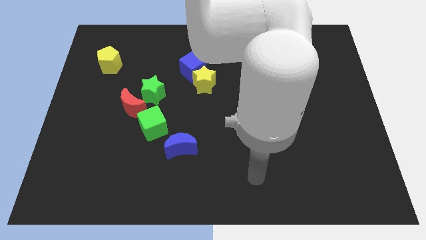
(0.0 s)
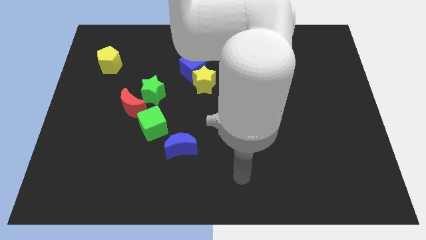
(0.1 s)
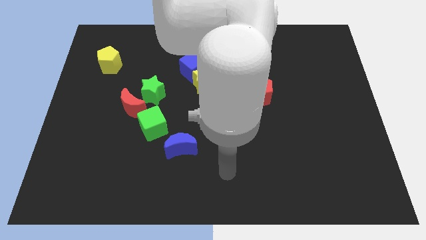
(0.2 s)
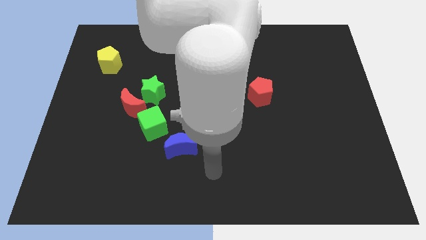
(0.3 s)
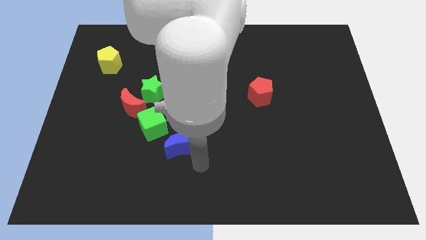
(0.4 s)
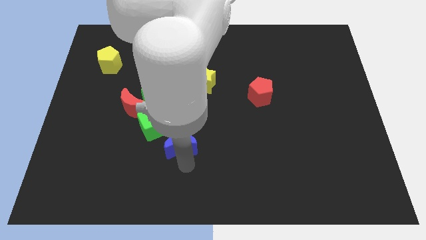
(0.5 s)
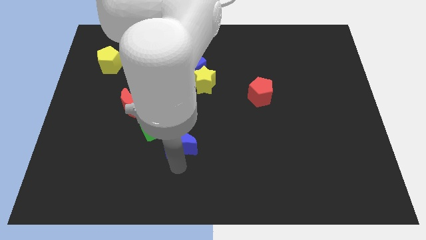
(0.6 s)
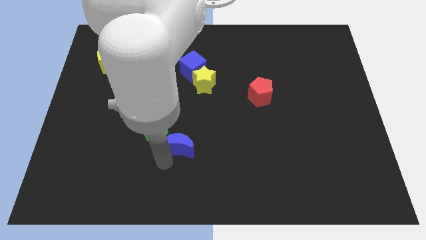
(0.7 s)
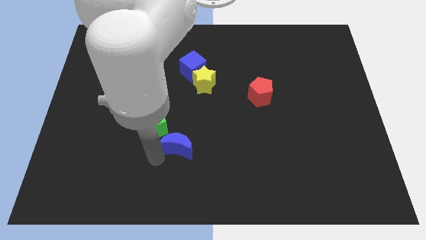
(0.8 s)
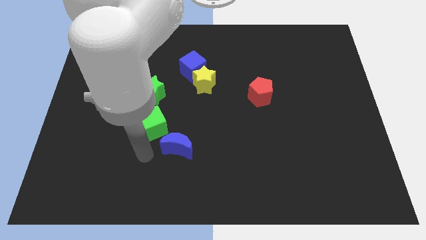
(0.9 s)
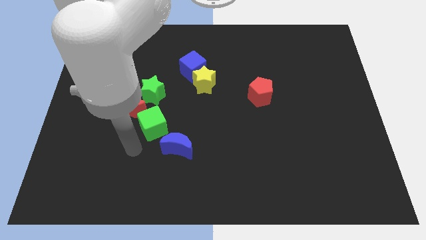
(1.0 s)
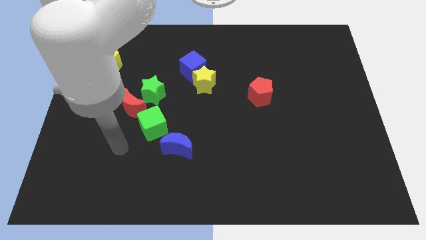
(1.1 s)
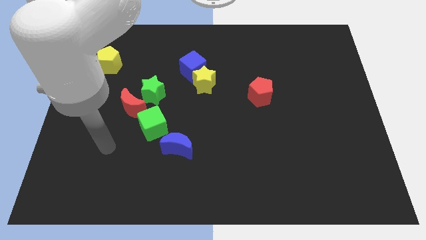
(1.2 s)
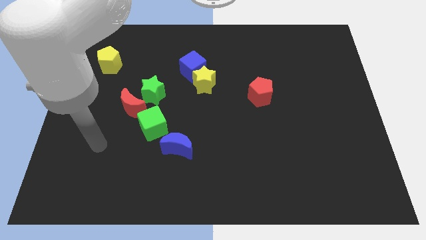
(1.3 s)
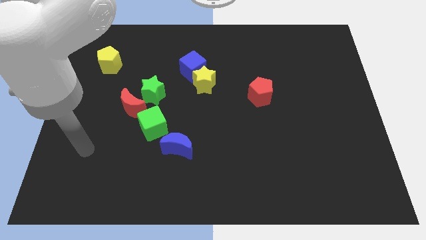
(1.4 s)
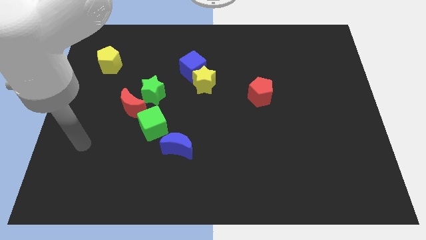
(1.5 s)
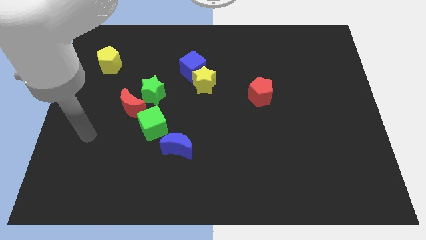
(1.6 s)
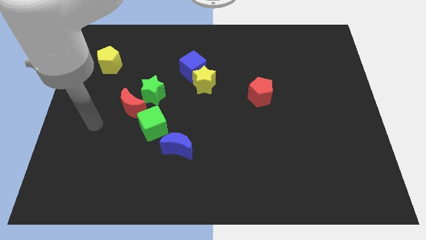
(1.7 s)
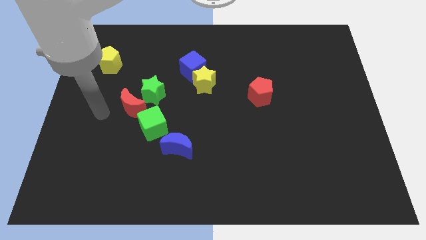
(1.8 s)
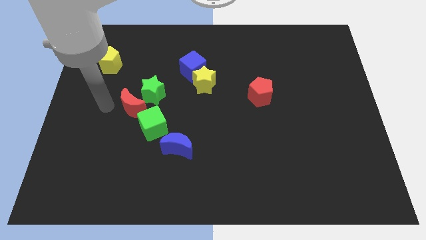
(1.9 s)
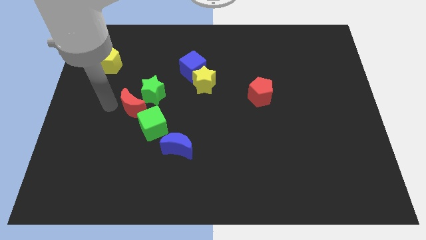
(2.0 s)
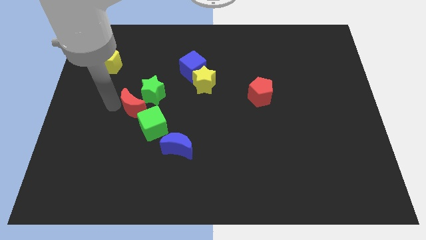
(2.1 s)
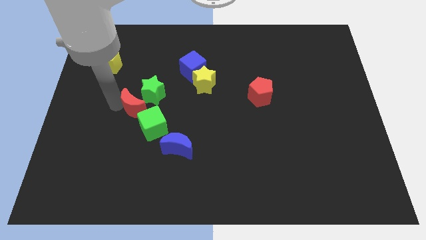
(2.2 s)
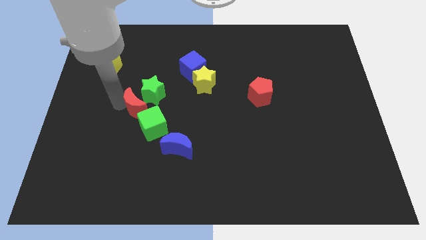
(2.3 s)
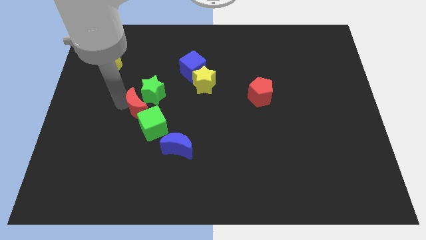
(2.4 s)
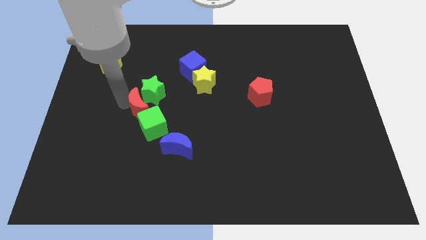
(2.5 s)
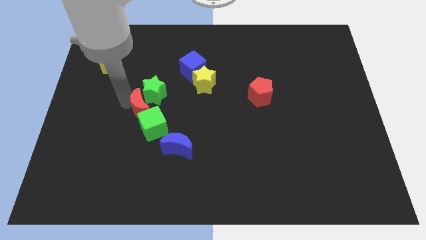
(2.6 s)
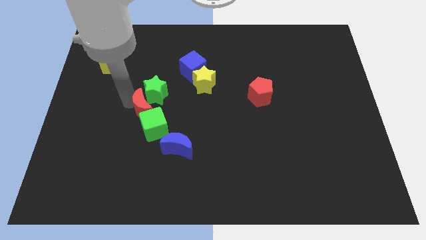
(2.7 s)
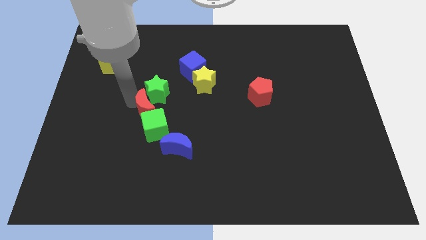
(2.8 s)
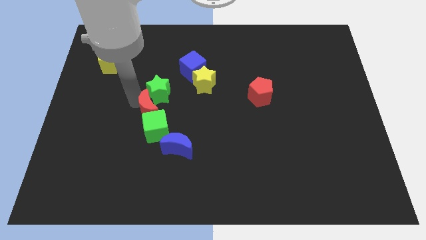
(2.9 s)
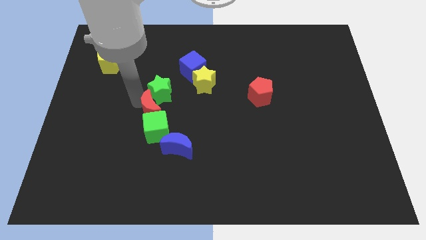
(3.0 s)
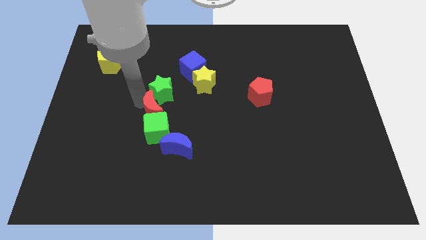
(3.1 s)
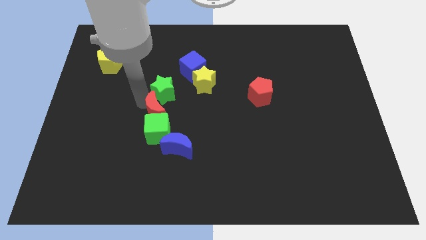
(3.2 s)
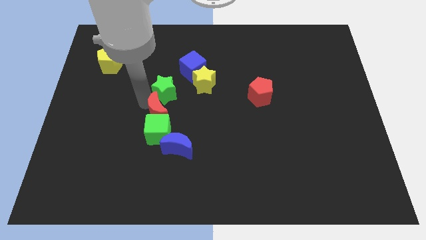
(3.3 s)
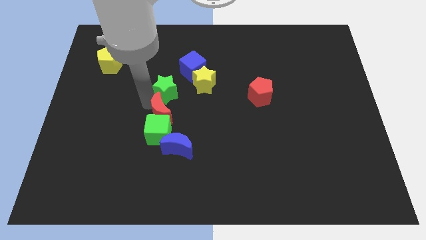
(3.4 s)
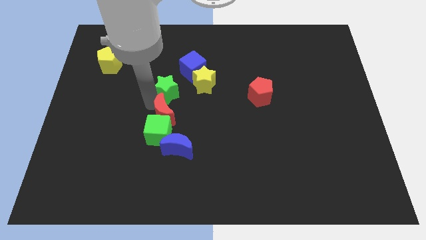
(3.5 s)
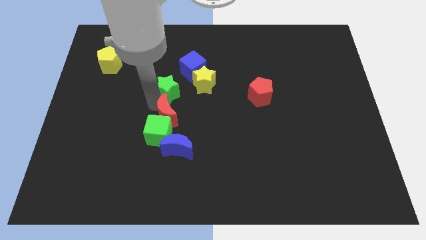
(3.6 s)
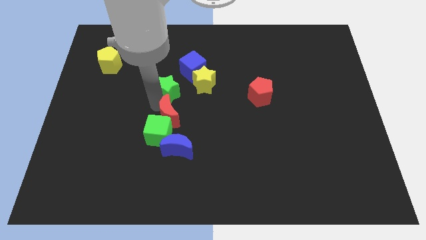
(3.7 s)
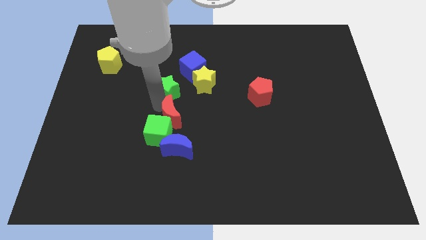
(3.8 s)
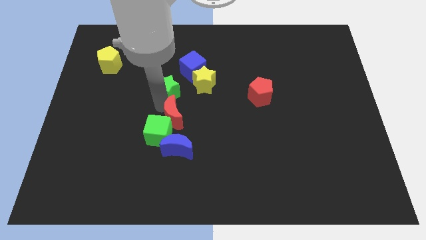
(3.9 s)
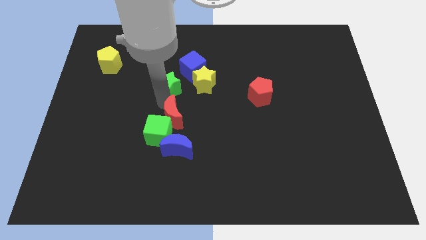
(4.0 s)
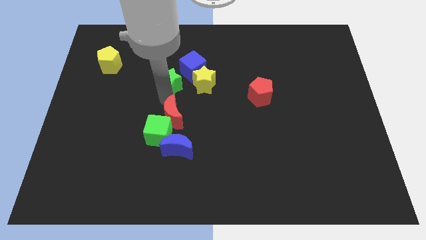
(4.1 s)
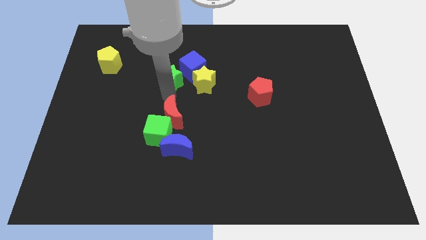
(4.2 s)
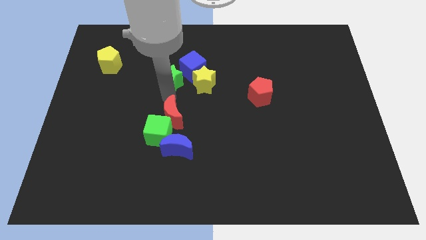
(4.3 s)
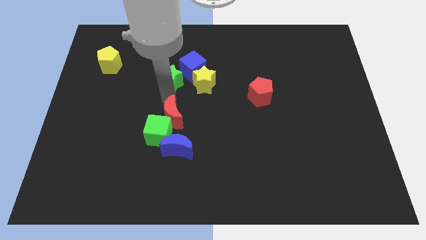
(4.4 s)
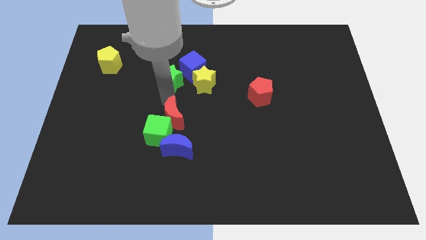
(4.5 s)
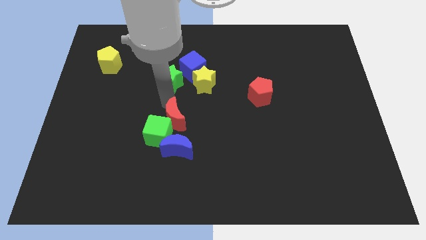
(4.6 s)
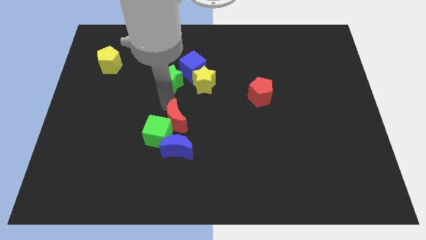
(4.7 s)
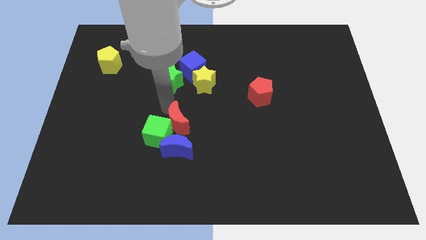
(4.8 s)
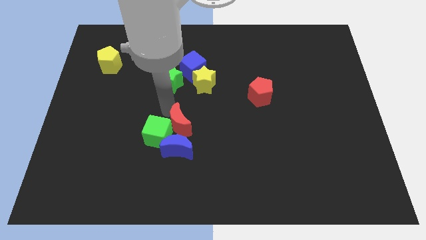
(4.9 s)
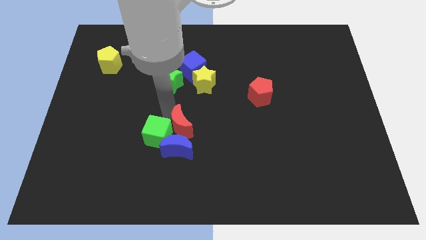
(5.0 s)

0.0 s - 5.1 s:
push the red moon to the blue moon

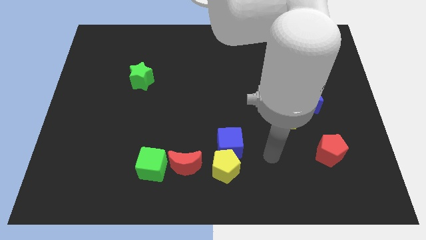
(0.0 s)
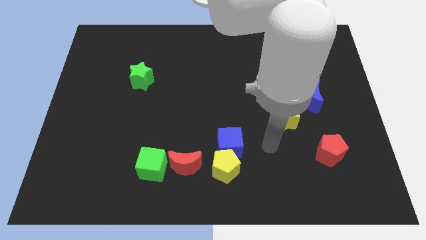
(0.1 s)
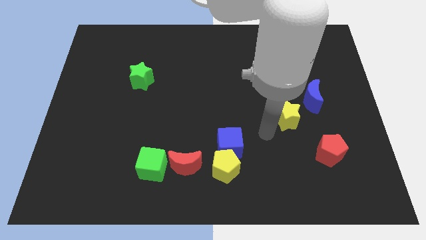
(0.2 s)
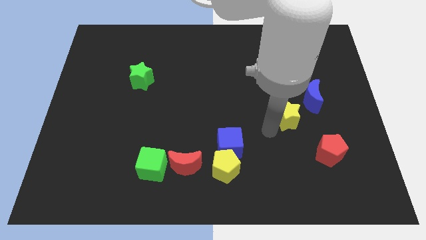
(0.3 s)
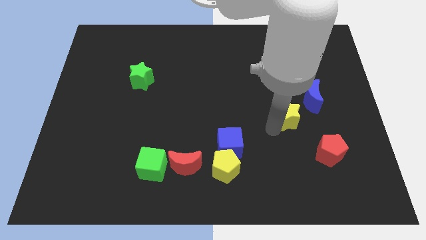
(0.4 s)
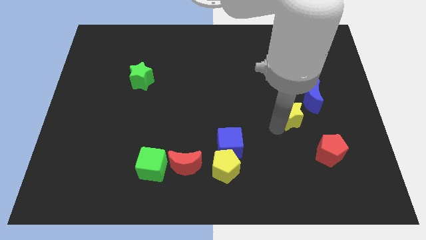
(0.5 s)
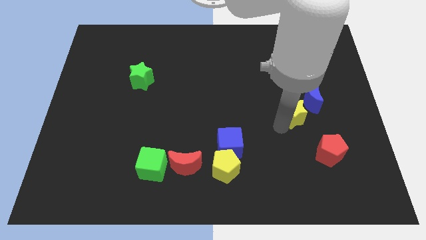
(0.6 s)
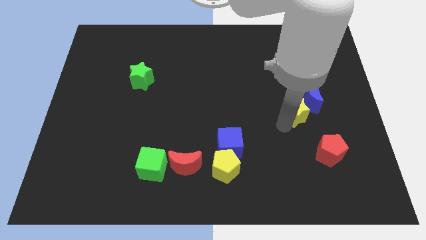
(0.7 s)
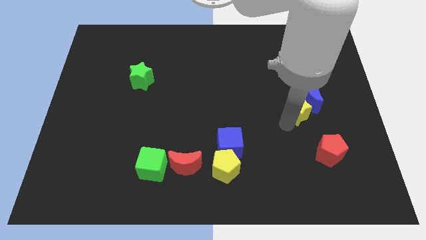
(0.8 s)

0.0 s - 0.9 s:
push the yellow star close to the blue moon
